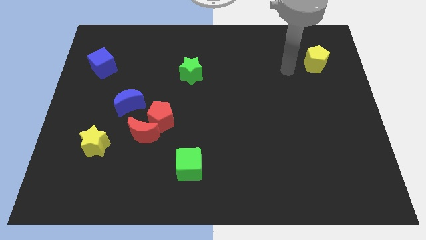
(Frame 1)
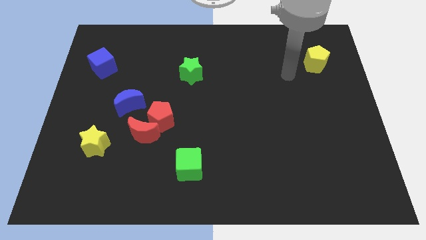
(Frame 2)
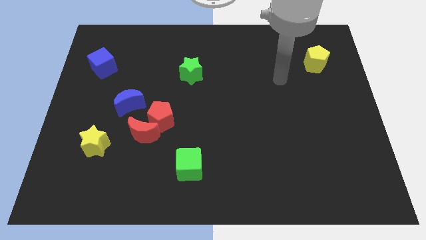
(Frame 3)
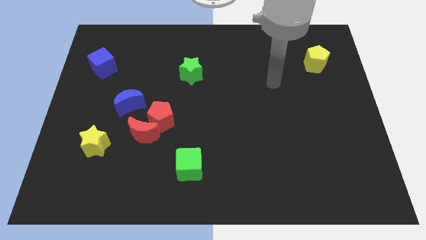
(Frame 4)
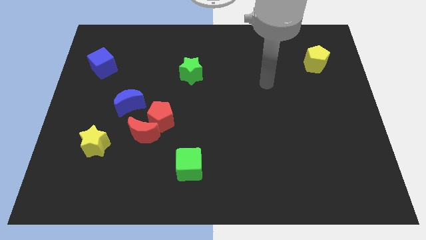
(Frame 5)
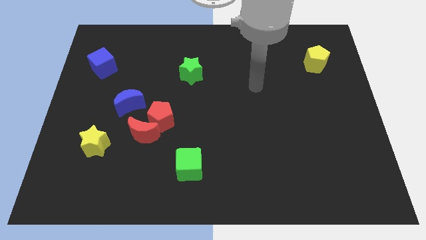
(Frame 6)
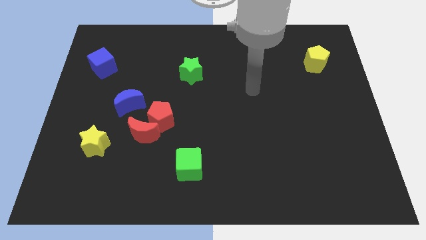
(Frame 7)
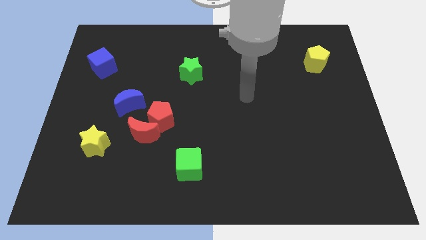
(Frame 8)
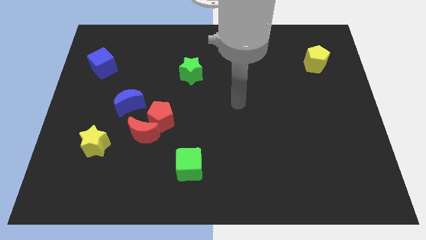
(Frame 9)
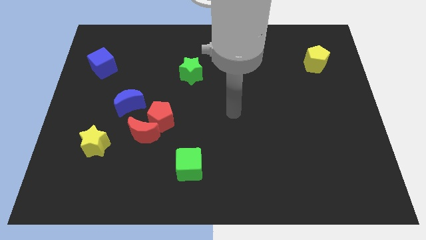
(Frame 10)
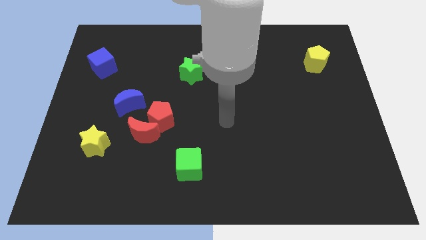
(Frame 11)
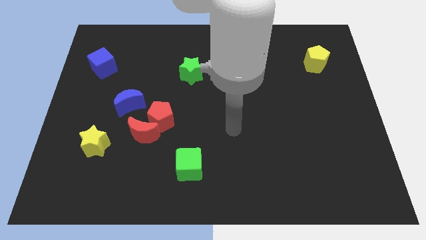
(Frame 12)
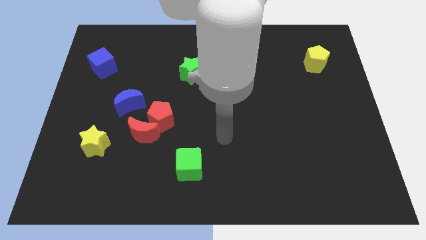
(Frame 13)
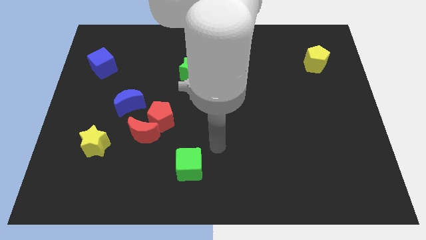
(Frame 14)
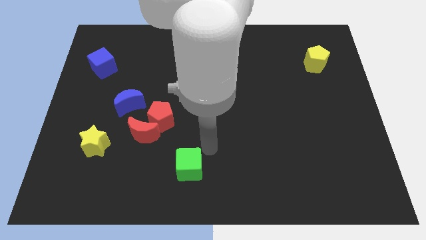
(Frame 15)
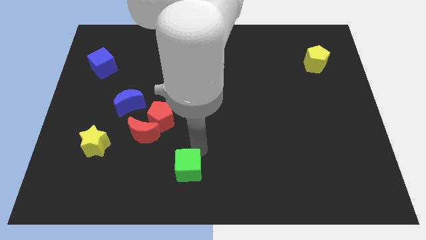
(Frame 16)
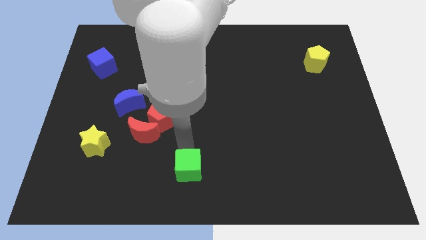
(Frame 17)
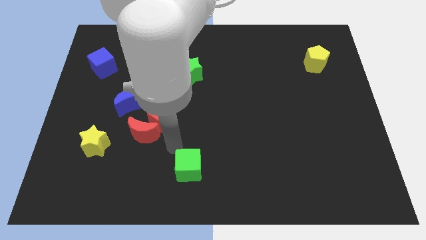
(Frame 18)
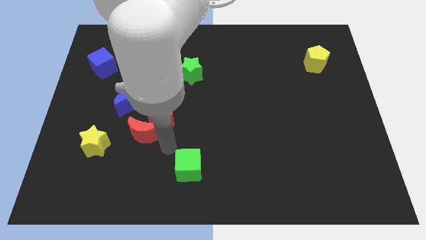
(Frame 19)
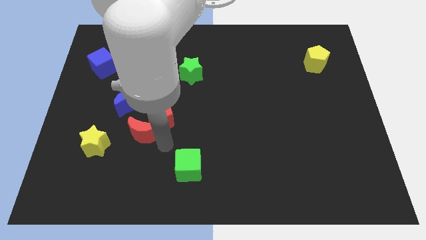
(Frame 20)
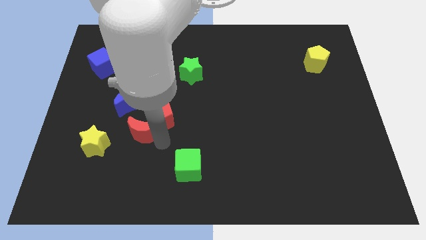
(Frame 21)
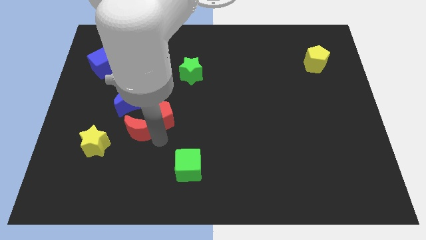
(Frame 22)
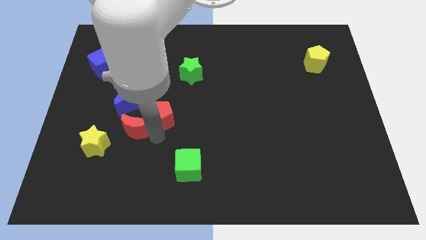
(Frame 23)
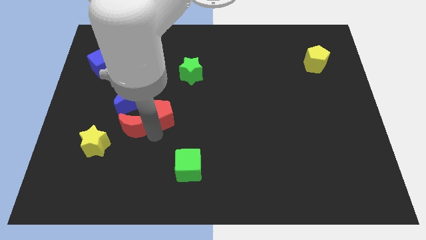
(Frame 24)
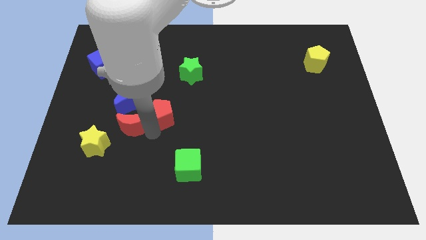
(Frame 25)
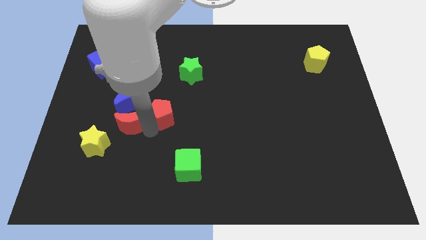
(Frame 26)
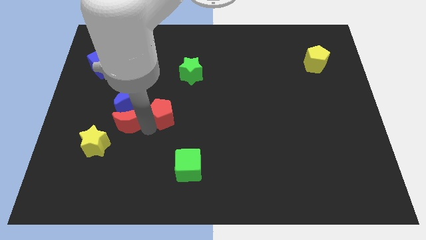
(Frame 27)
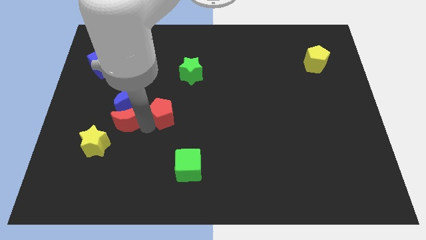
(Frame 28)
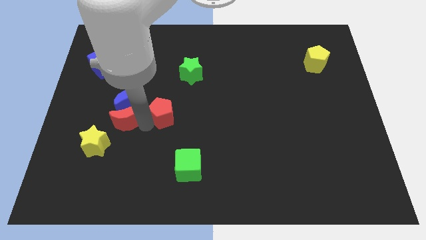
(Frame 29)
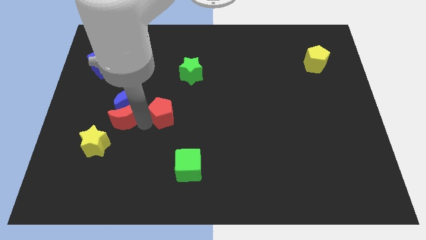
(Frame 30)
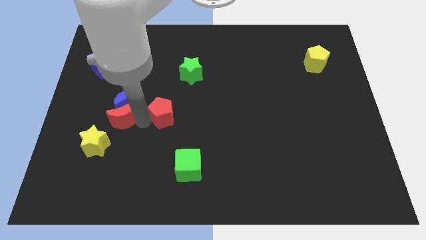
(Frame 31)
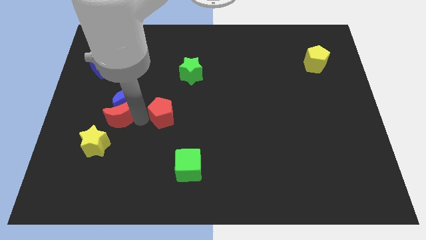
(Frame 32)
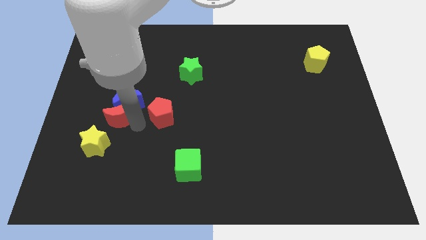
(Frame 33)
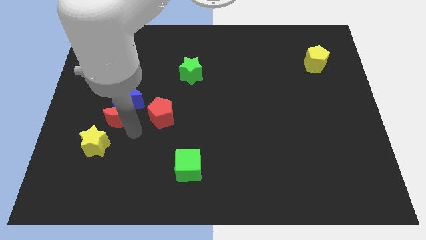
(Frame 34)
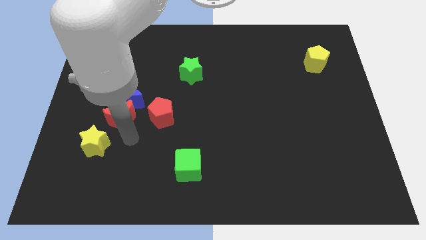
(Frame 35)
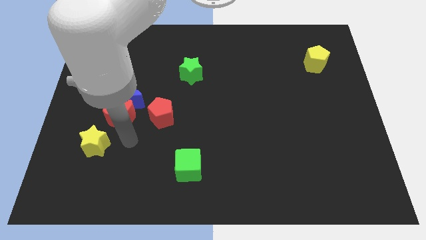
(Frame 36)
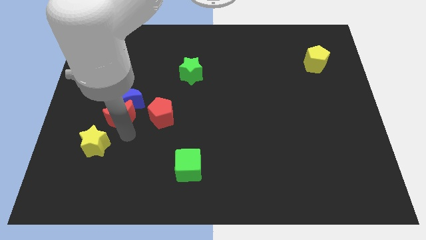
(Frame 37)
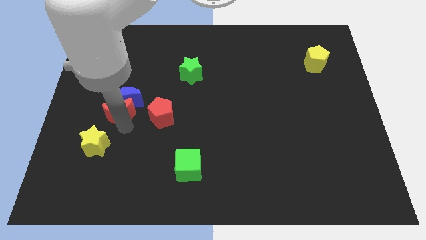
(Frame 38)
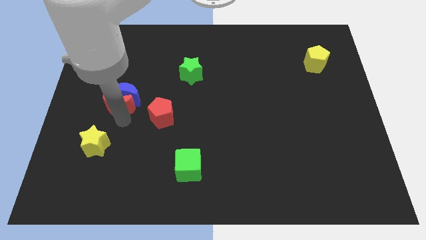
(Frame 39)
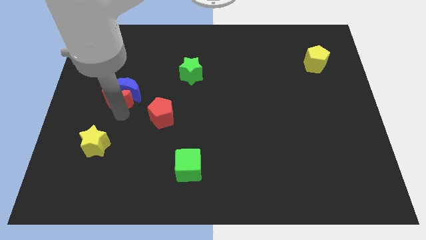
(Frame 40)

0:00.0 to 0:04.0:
push the red moon somewhat up

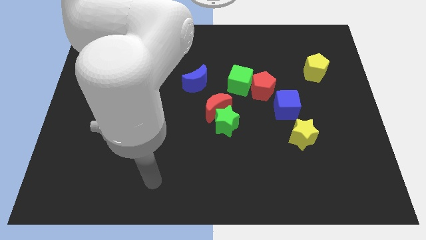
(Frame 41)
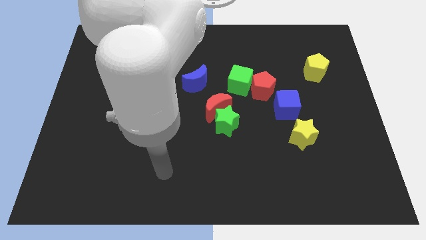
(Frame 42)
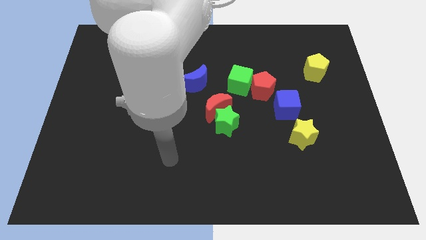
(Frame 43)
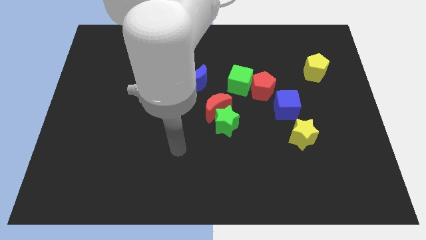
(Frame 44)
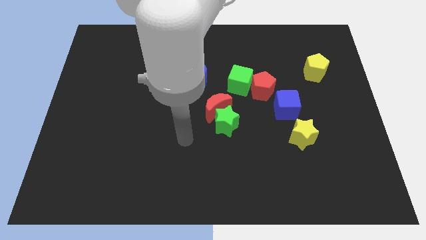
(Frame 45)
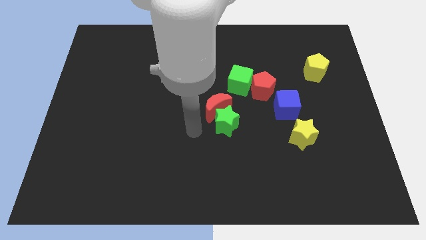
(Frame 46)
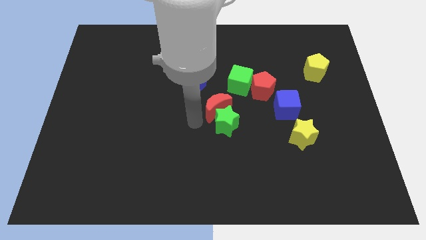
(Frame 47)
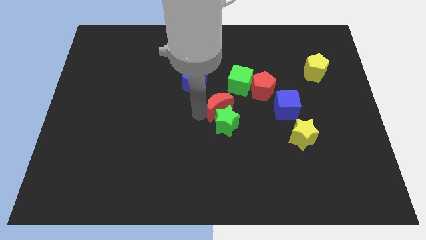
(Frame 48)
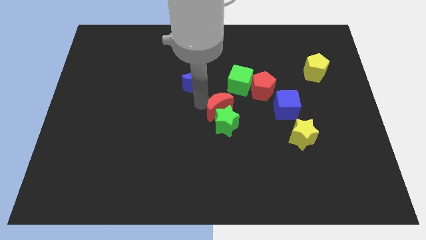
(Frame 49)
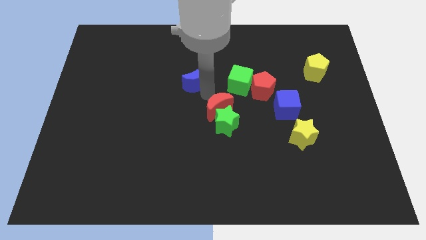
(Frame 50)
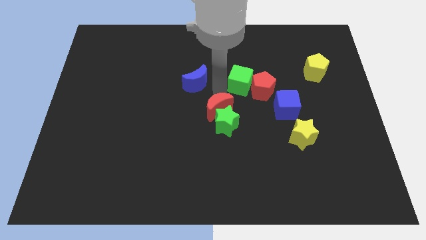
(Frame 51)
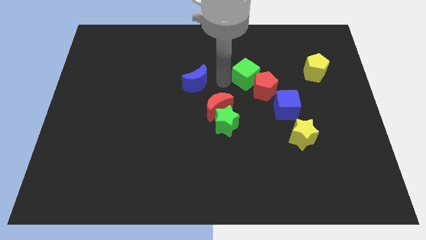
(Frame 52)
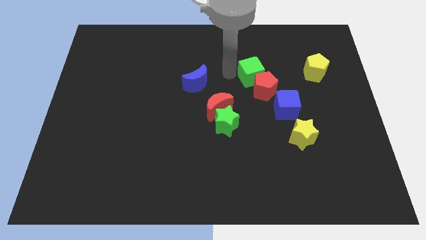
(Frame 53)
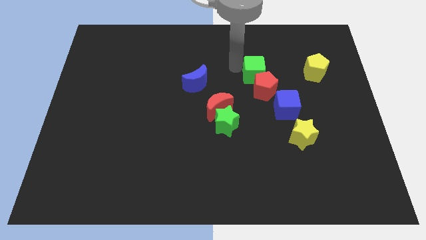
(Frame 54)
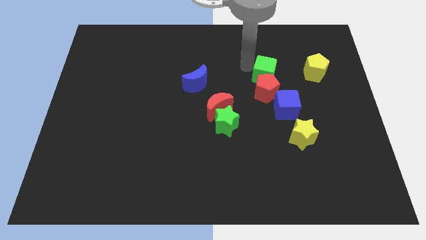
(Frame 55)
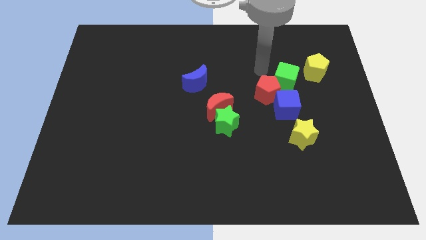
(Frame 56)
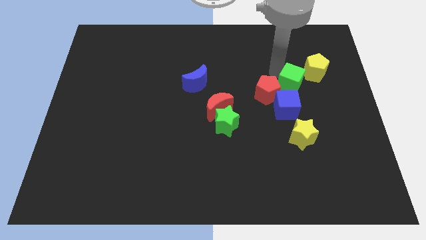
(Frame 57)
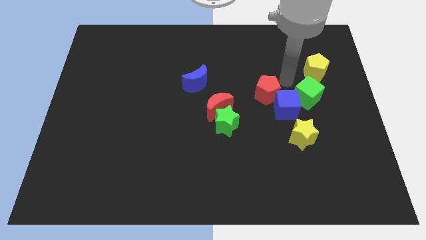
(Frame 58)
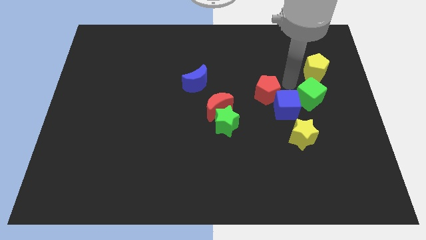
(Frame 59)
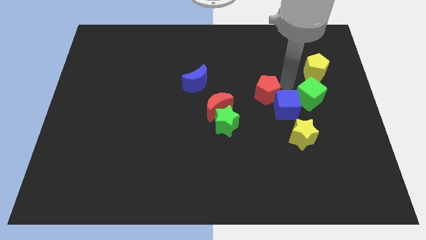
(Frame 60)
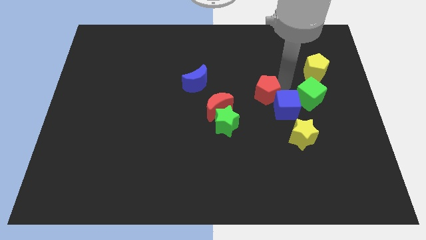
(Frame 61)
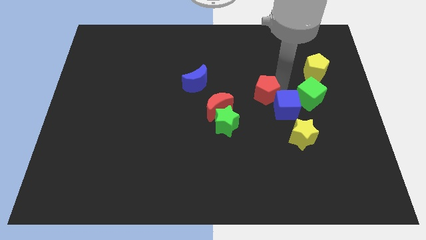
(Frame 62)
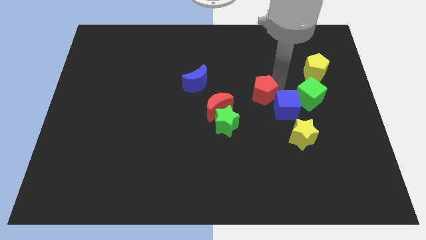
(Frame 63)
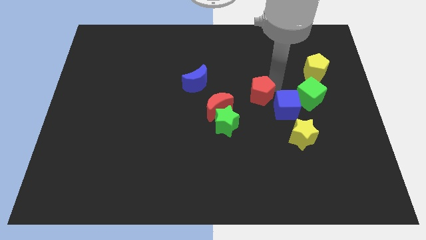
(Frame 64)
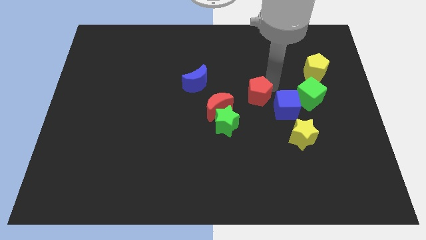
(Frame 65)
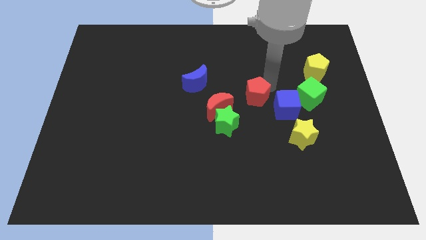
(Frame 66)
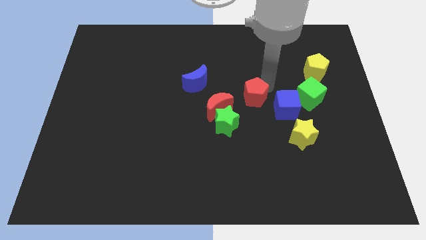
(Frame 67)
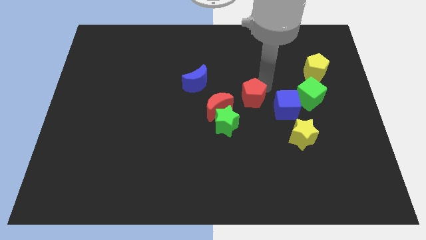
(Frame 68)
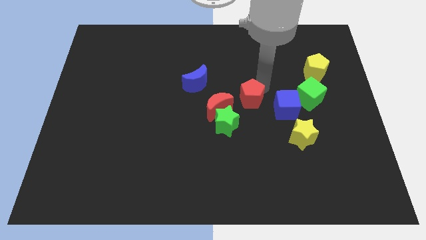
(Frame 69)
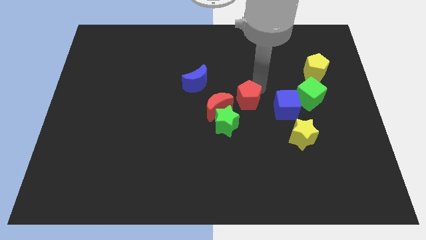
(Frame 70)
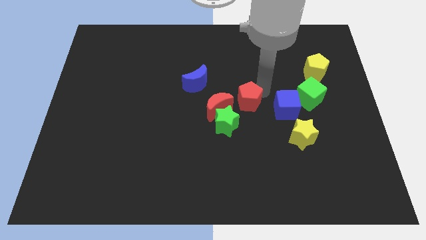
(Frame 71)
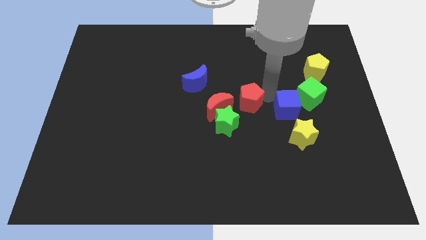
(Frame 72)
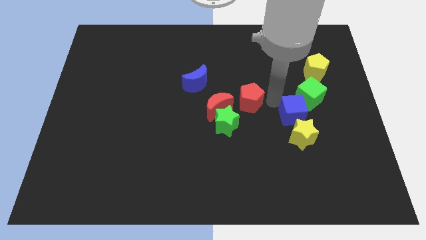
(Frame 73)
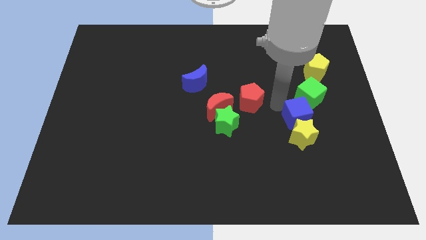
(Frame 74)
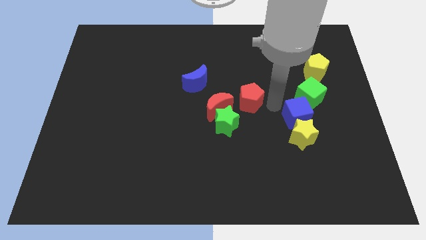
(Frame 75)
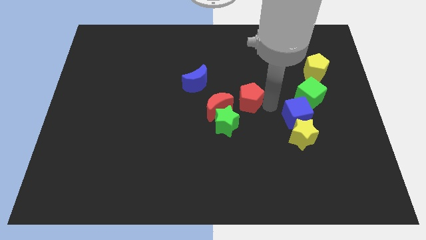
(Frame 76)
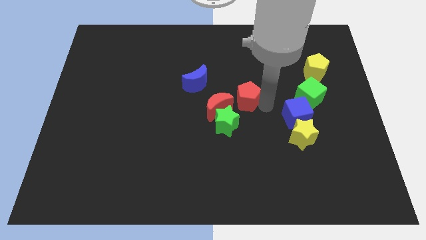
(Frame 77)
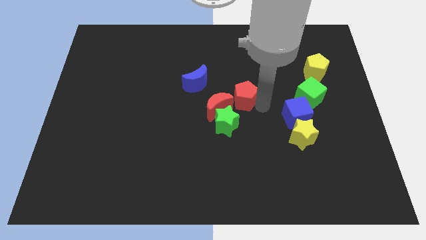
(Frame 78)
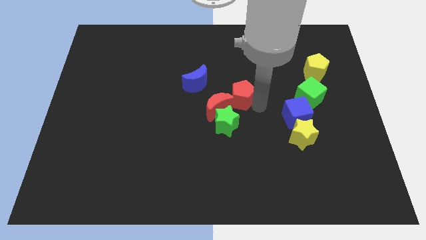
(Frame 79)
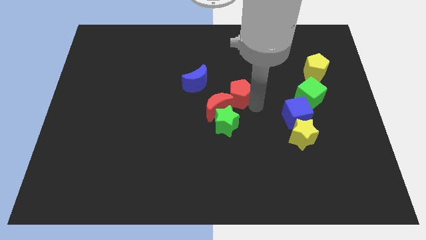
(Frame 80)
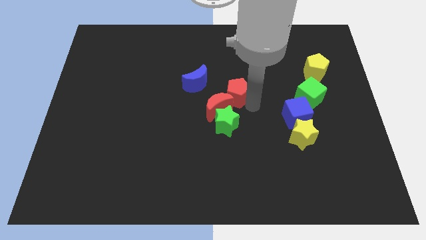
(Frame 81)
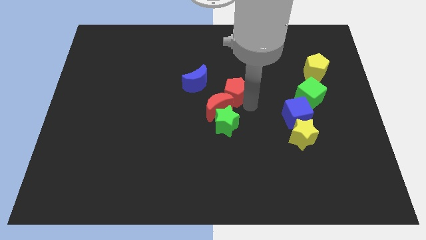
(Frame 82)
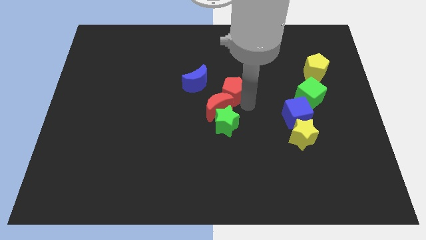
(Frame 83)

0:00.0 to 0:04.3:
slide the red pentagon a bit to the left
